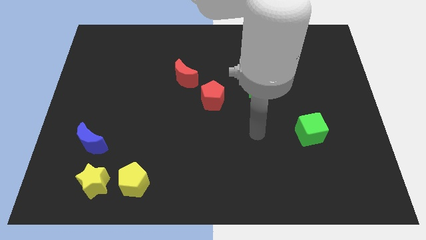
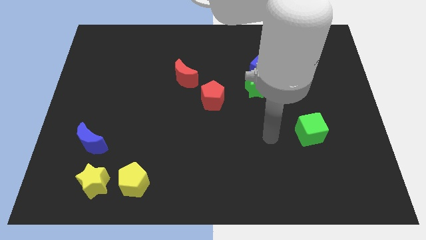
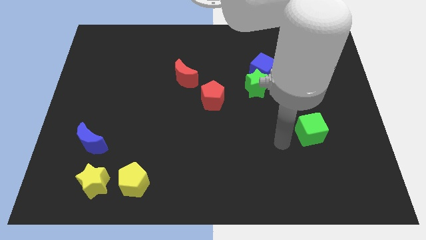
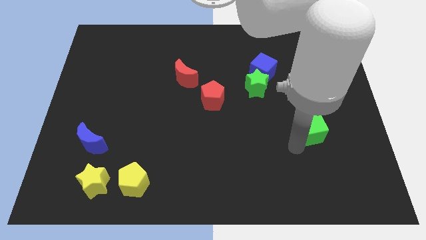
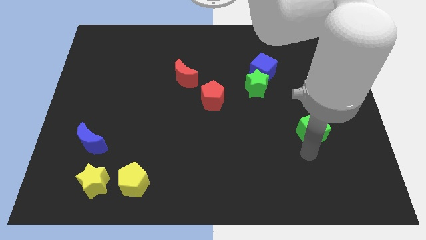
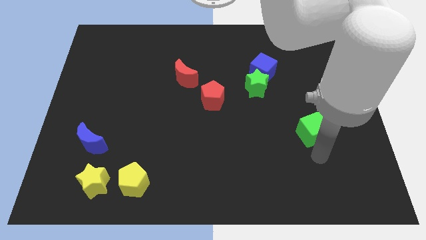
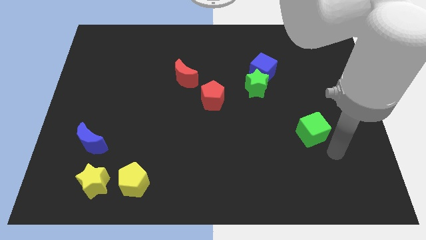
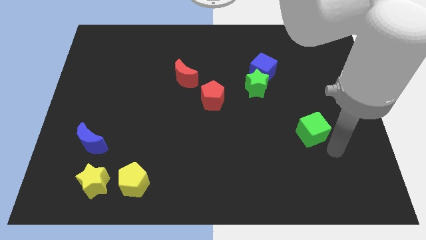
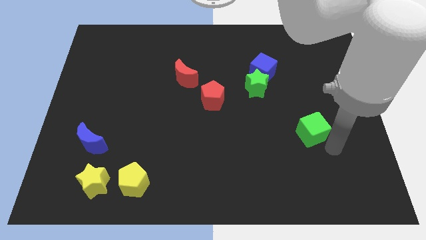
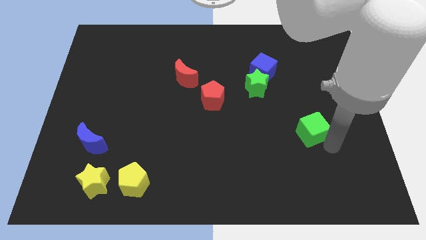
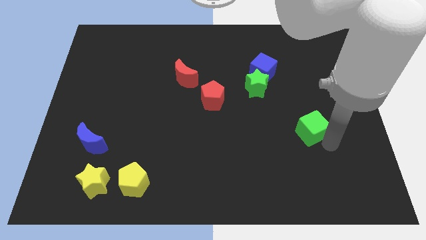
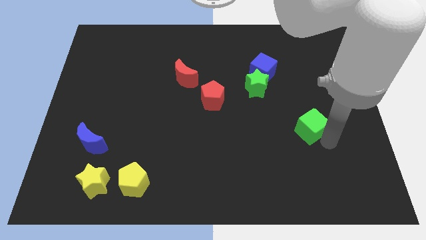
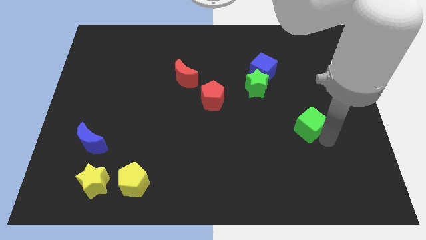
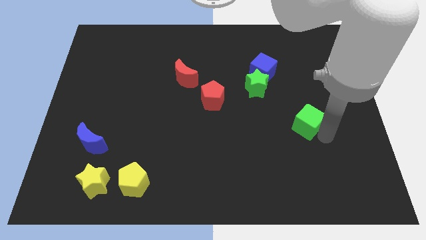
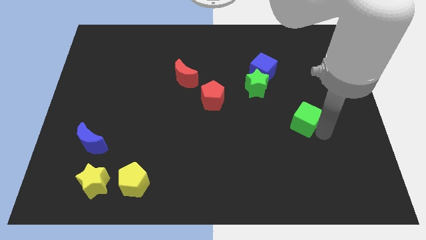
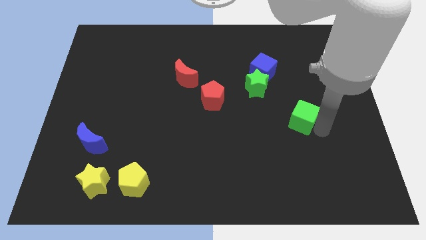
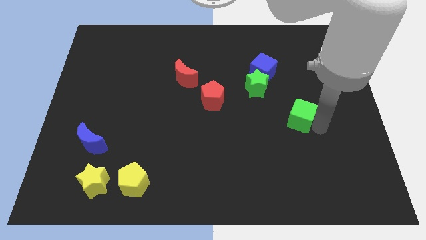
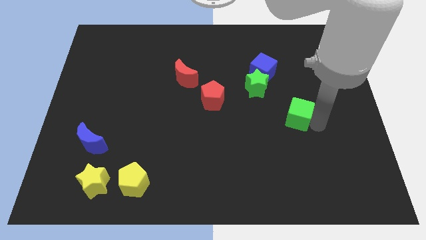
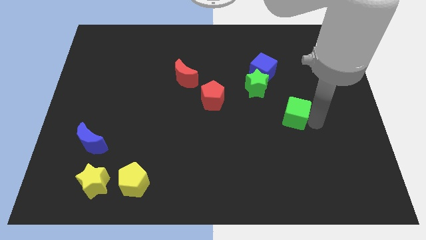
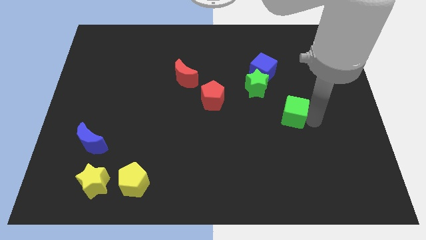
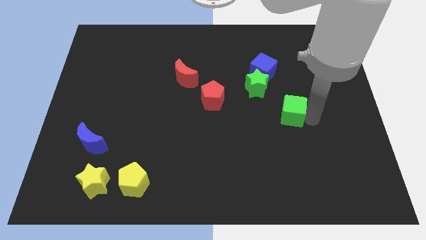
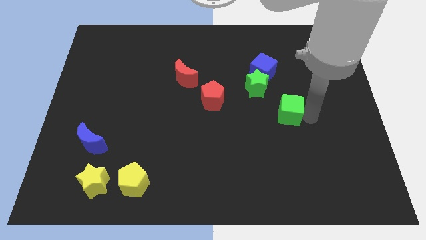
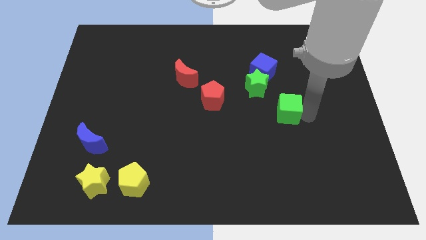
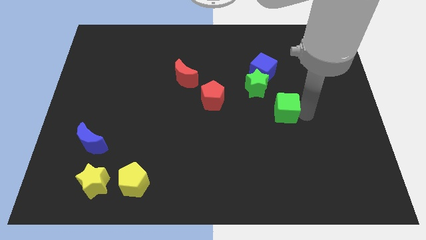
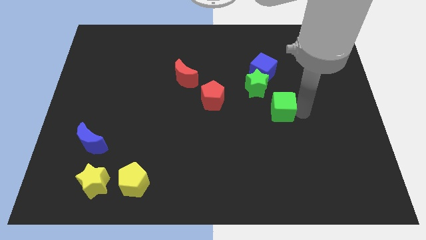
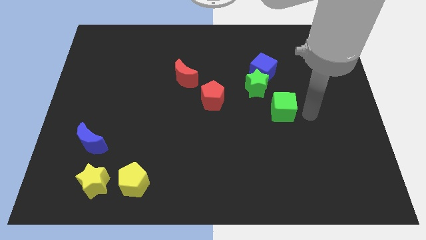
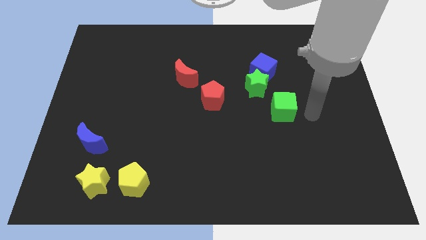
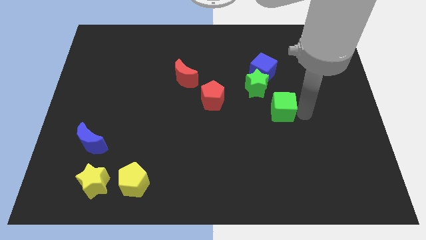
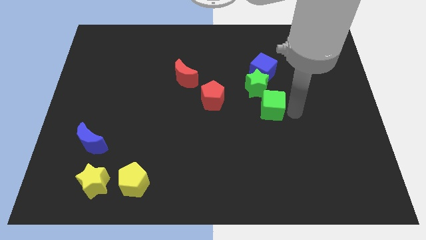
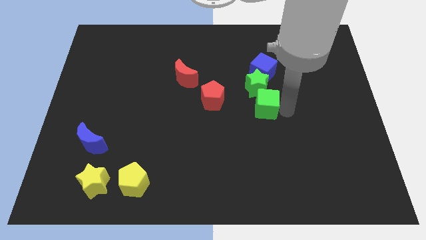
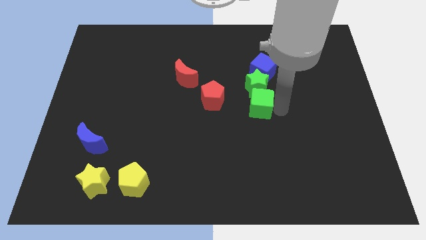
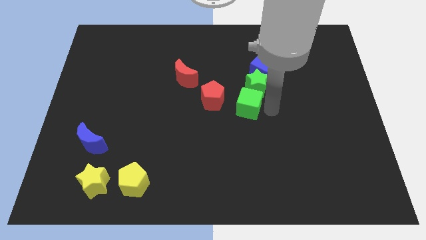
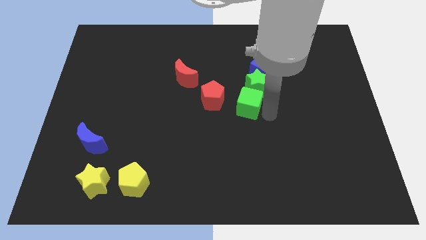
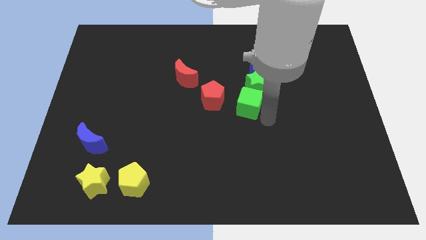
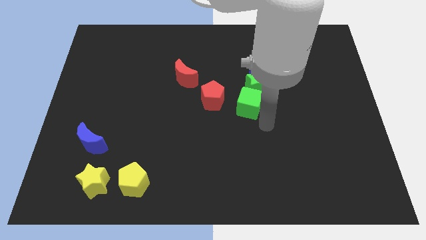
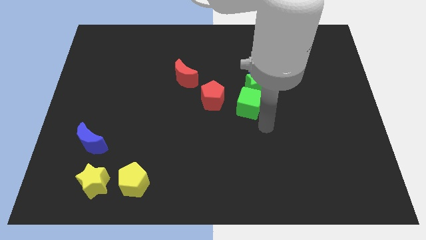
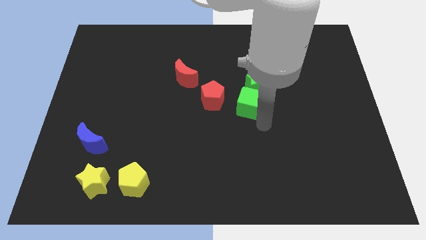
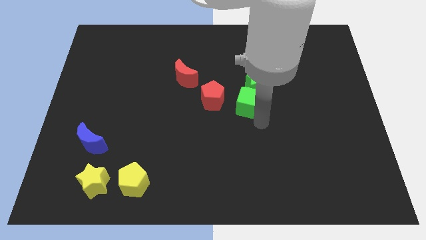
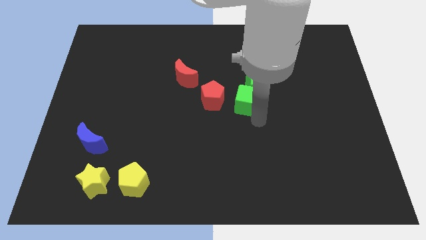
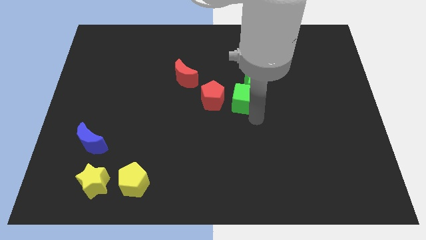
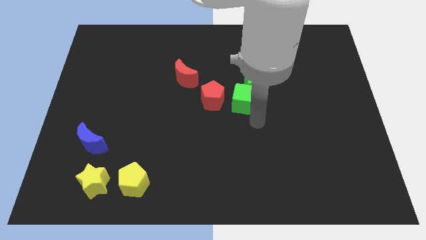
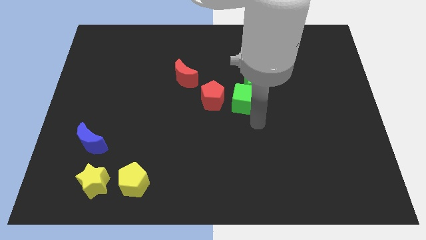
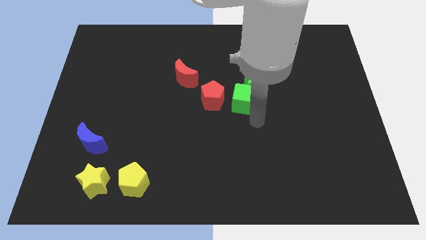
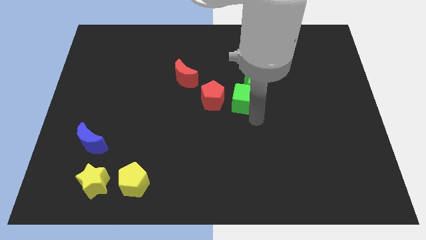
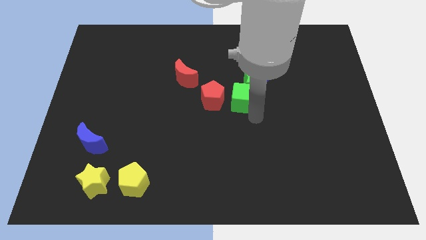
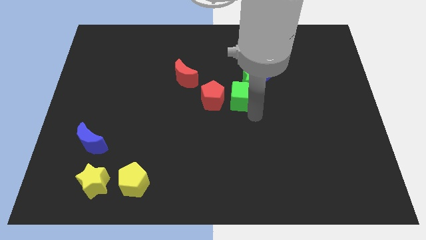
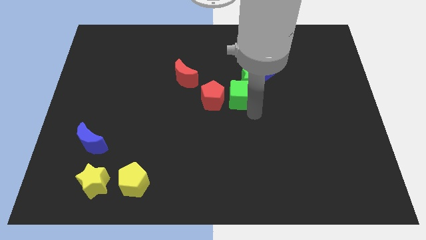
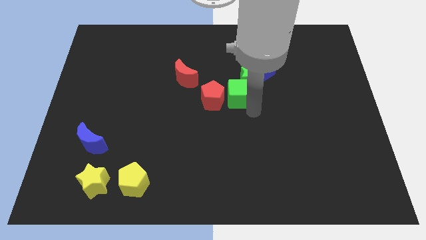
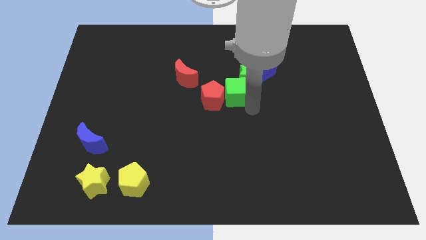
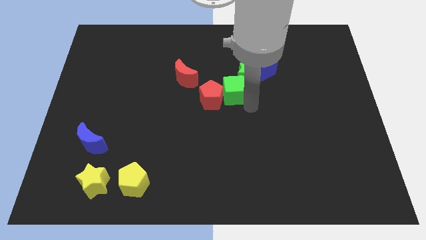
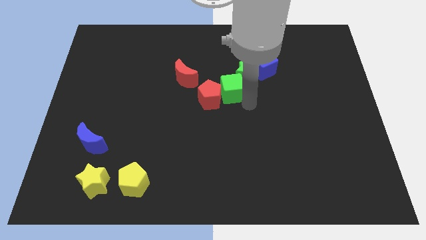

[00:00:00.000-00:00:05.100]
slide the green cube upwards and then to the left

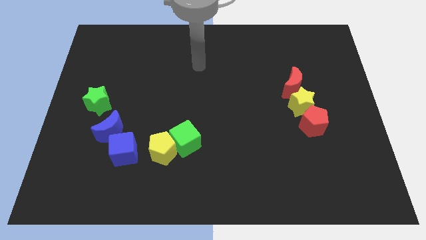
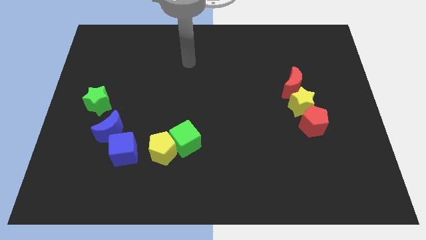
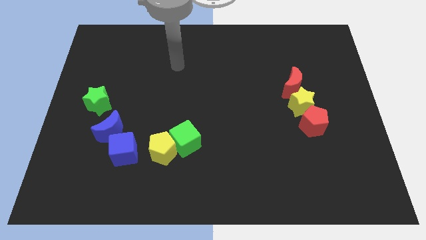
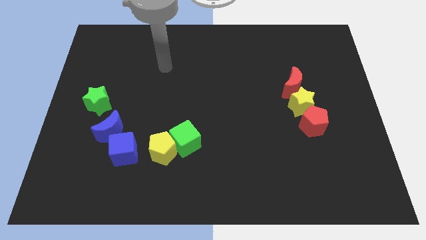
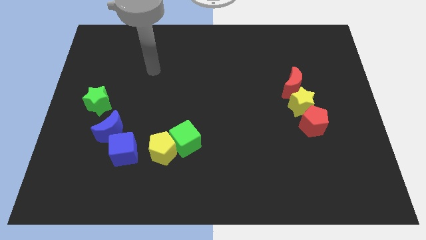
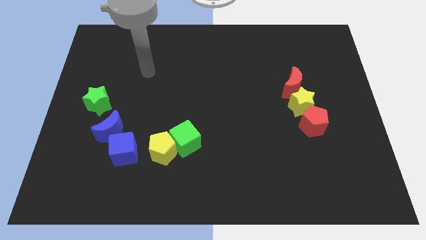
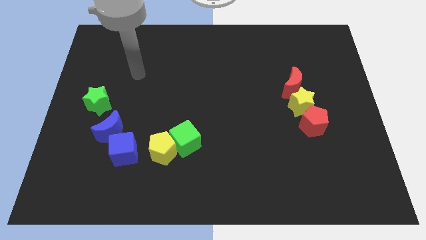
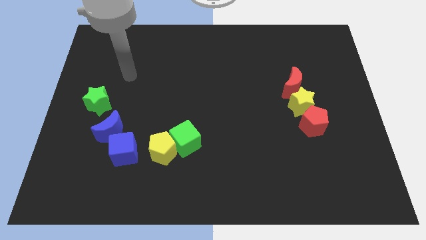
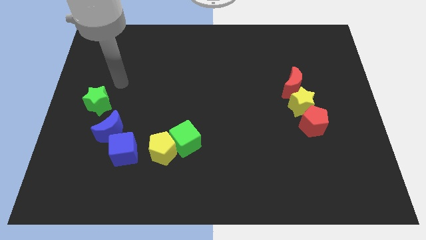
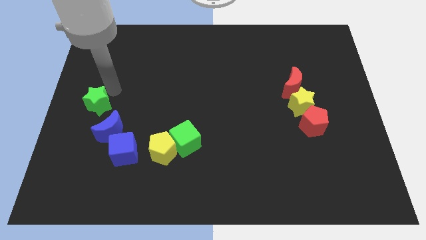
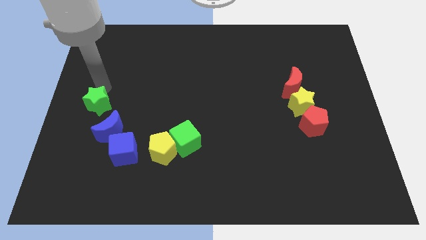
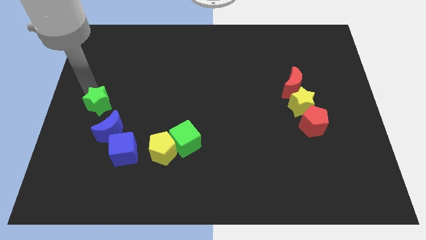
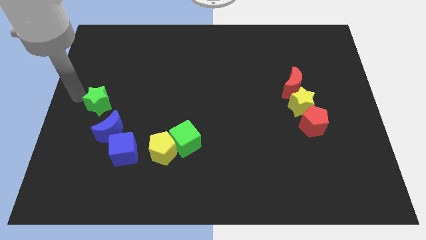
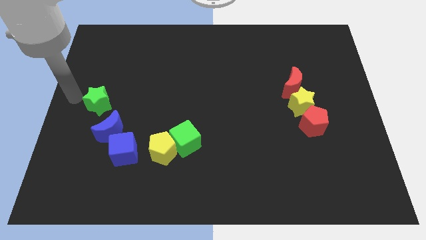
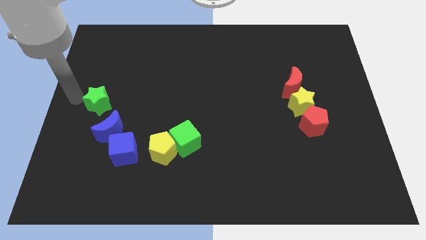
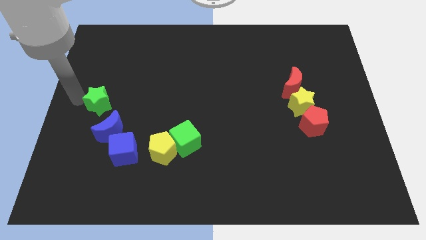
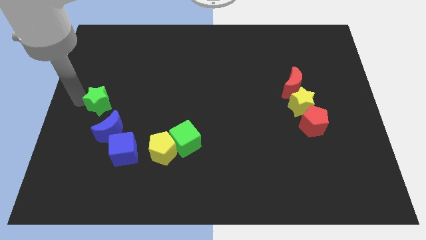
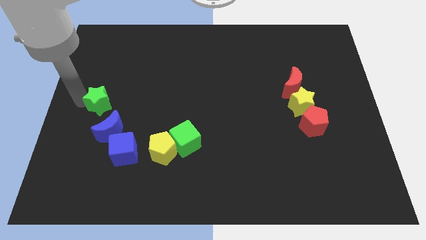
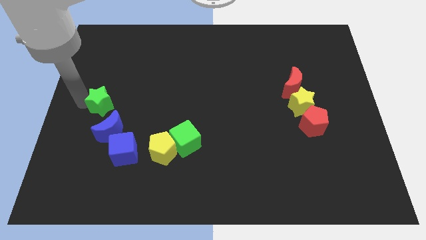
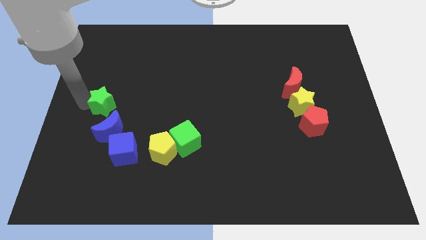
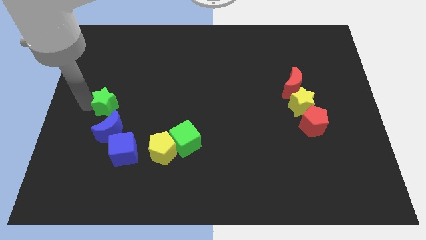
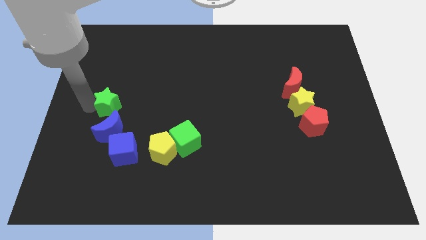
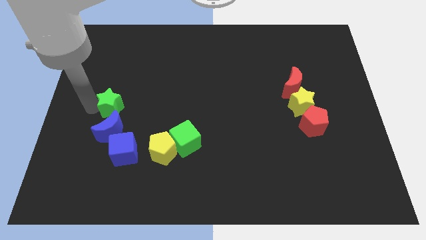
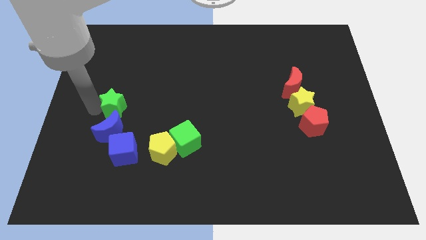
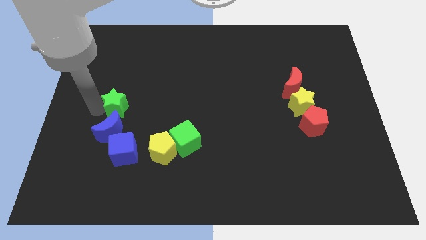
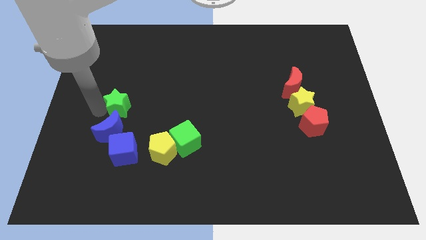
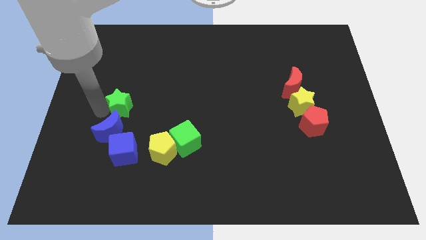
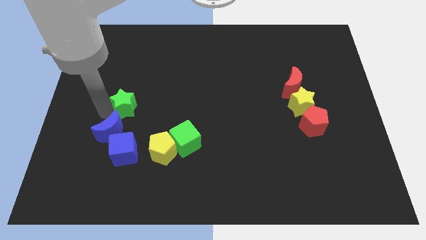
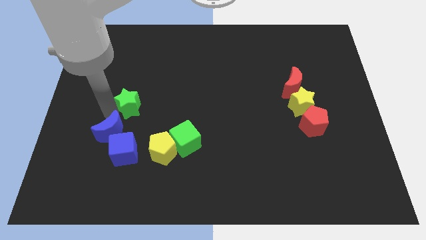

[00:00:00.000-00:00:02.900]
slide the green star right a little

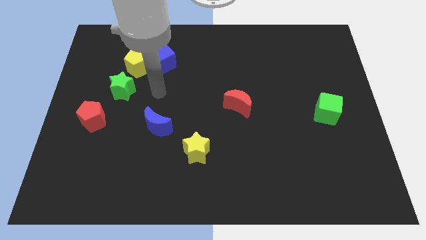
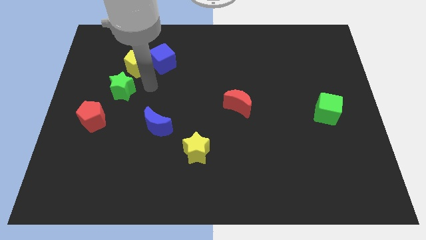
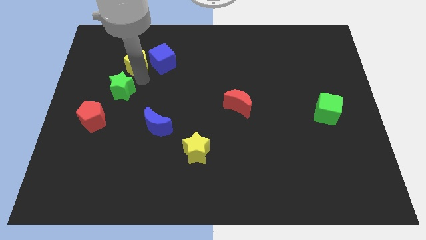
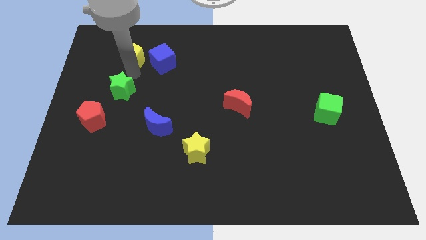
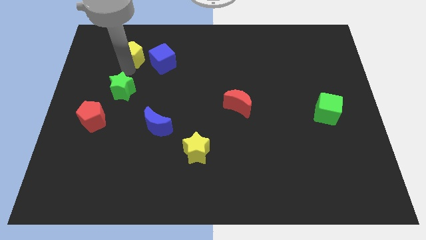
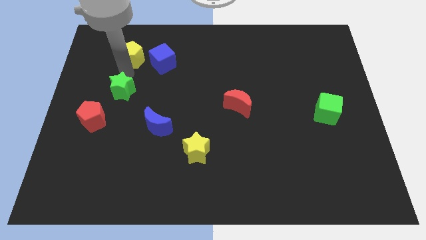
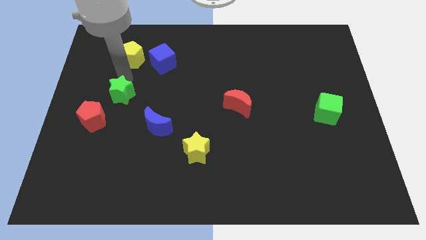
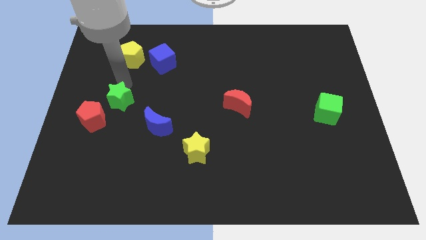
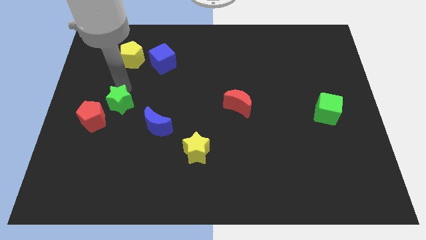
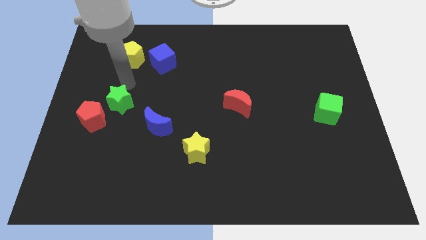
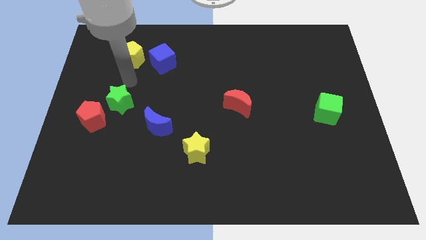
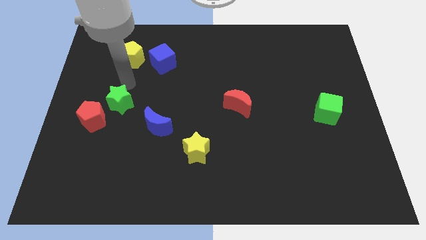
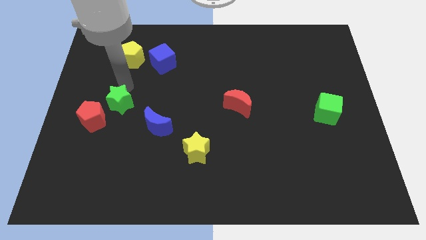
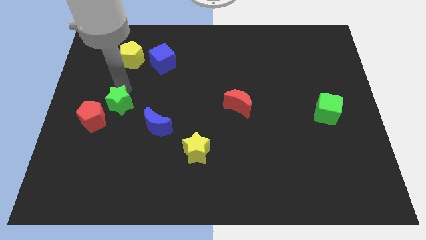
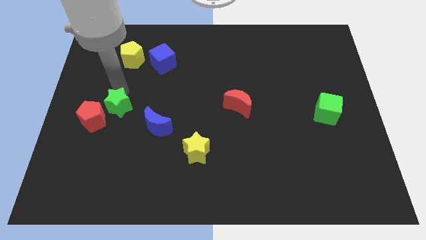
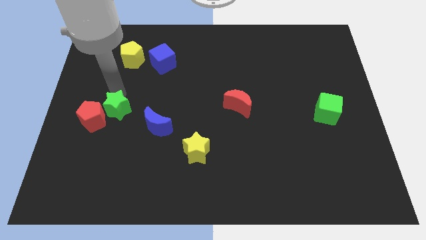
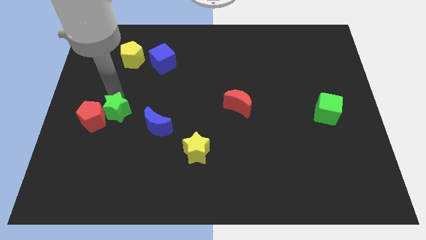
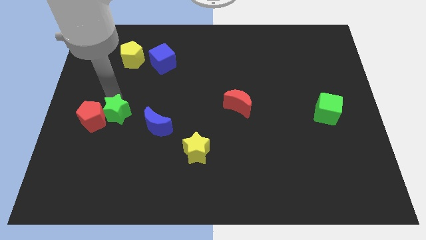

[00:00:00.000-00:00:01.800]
slightly push the green star downwards
